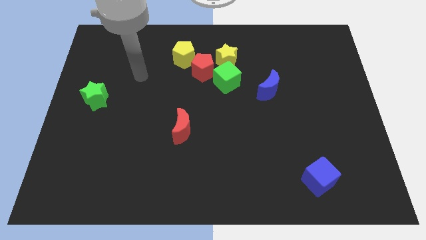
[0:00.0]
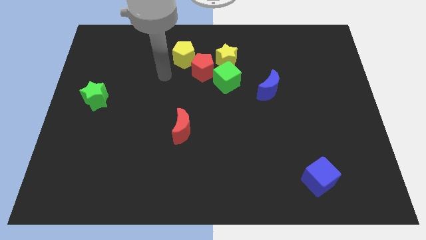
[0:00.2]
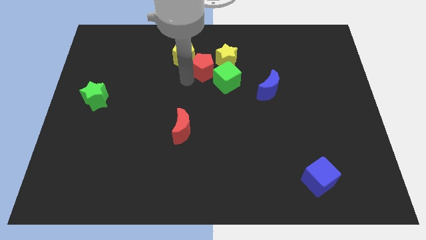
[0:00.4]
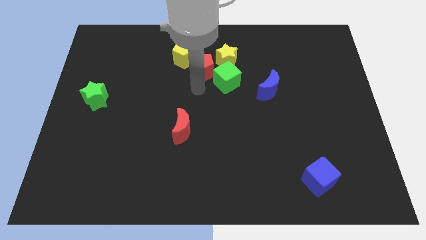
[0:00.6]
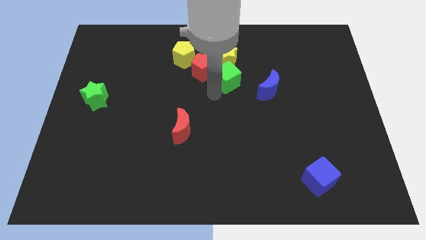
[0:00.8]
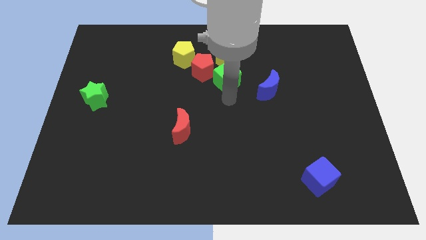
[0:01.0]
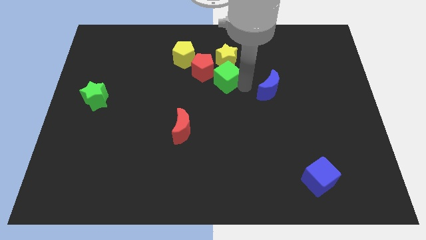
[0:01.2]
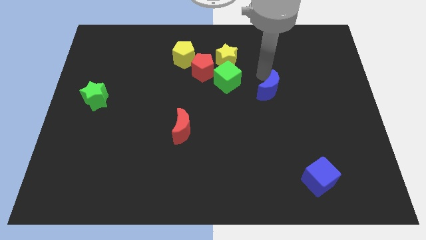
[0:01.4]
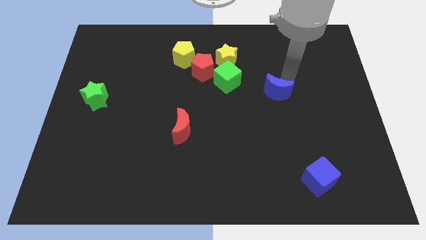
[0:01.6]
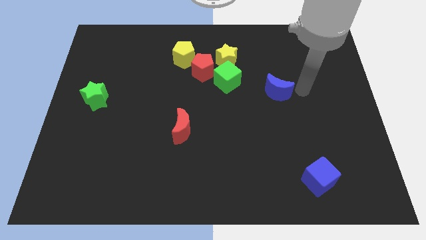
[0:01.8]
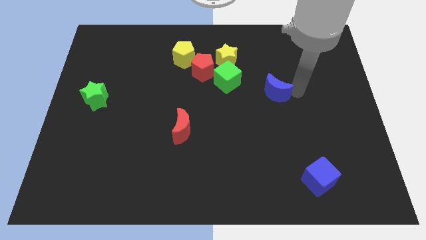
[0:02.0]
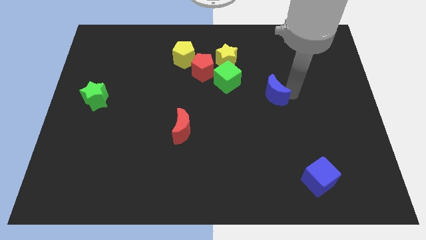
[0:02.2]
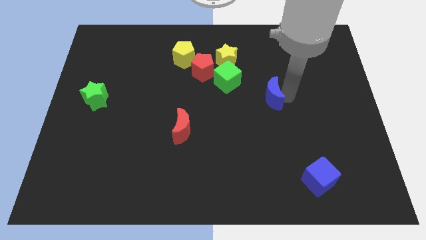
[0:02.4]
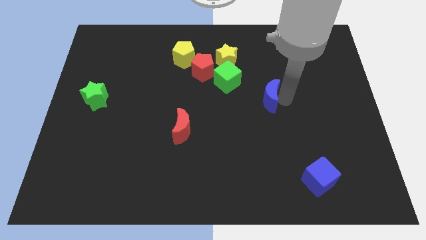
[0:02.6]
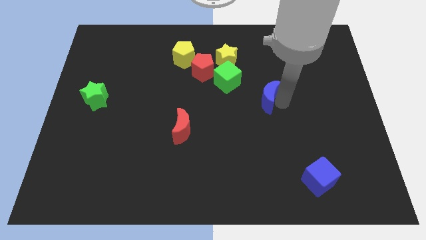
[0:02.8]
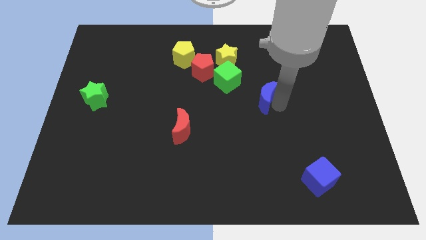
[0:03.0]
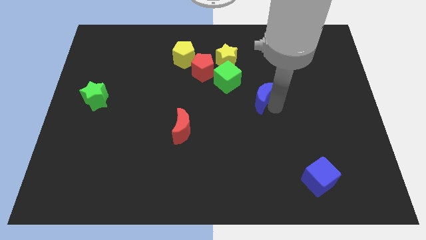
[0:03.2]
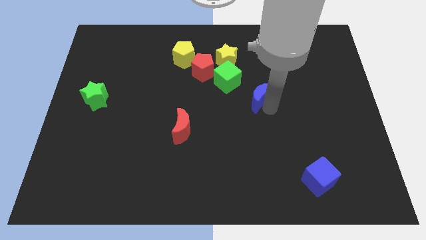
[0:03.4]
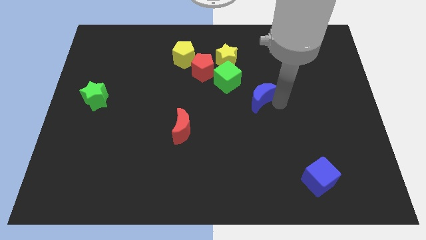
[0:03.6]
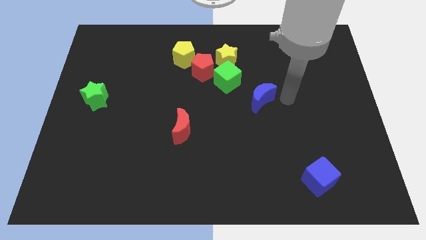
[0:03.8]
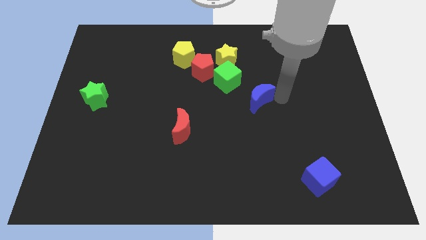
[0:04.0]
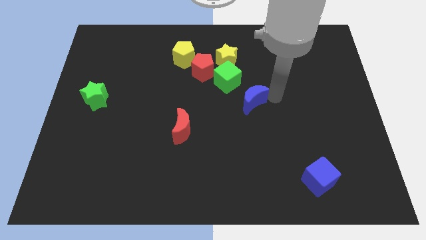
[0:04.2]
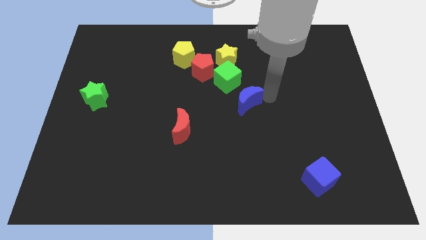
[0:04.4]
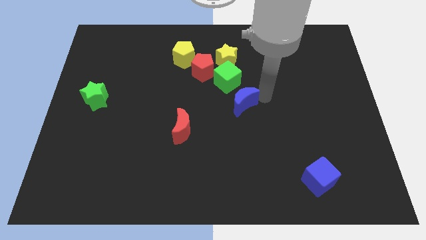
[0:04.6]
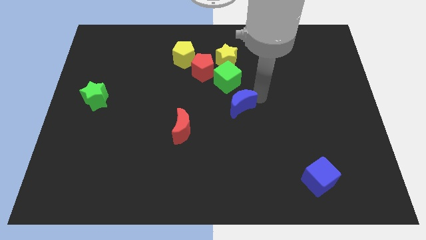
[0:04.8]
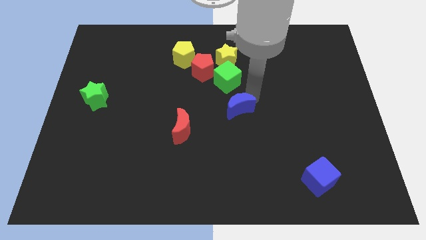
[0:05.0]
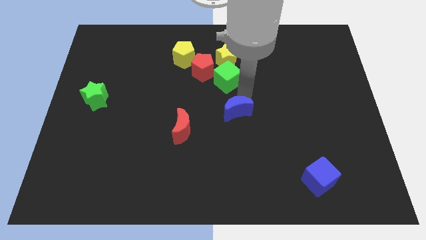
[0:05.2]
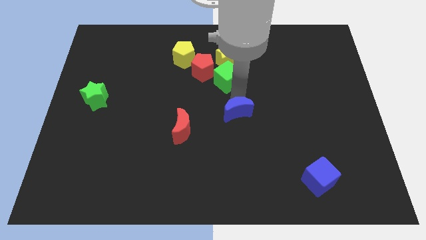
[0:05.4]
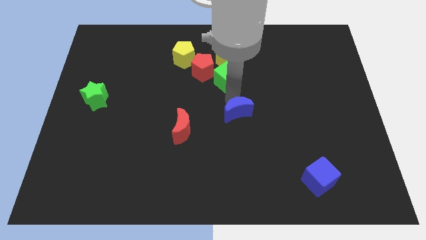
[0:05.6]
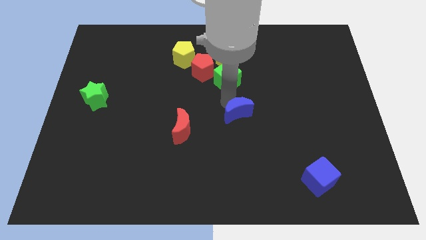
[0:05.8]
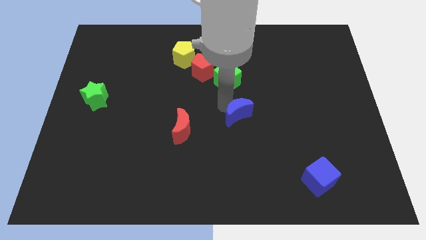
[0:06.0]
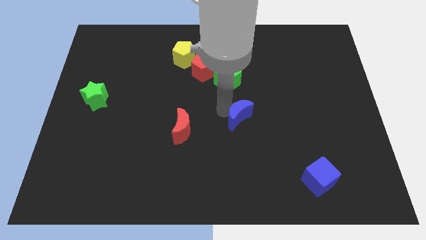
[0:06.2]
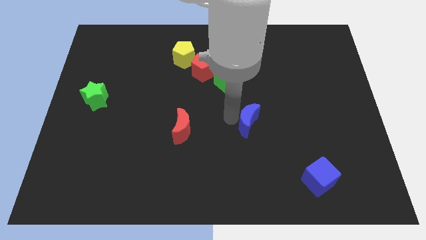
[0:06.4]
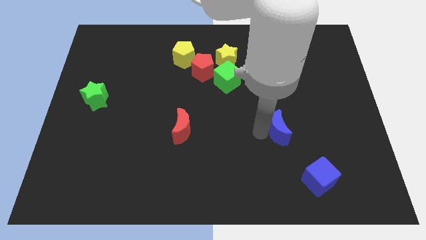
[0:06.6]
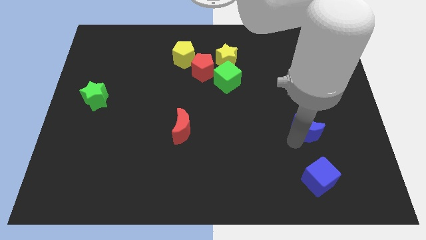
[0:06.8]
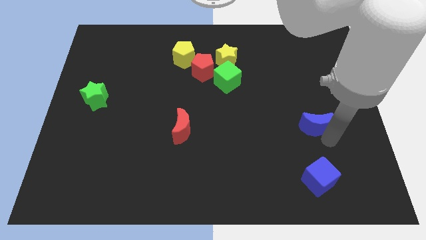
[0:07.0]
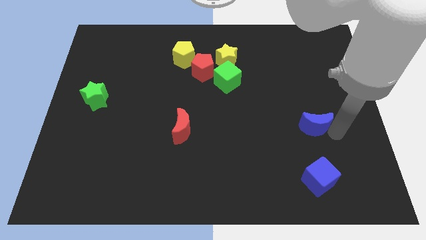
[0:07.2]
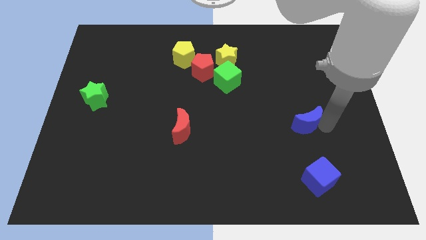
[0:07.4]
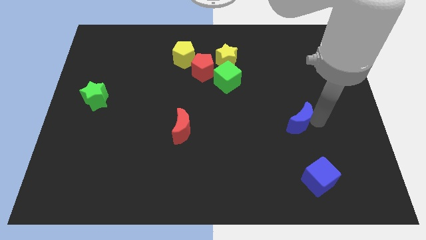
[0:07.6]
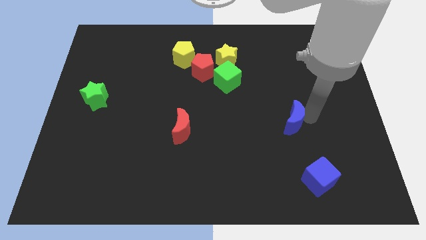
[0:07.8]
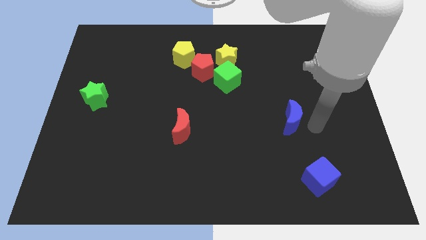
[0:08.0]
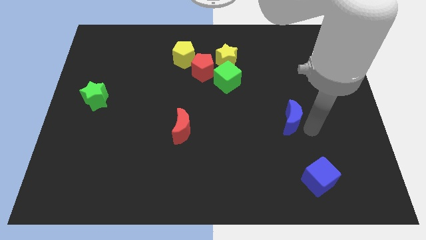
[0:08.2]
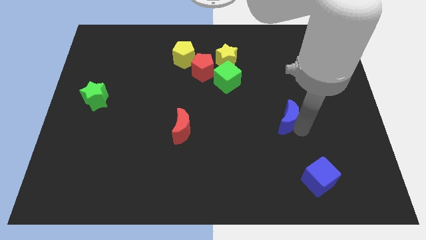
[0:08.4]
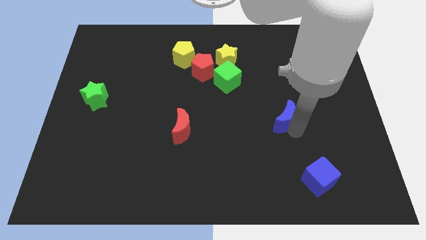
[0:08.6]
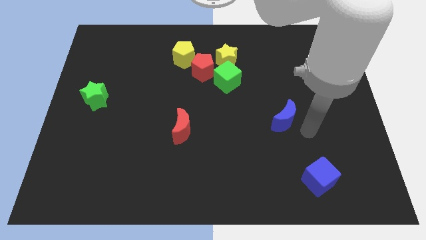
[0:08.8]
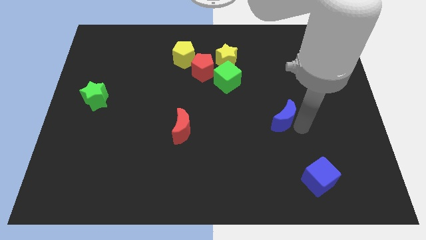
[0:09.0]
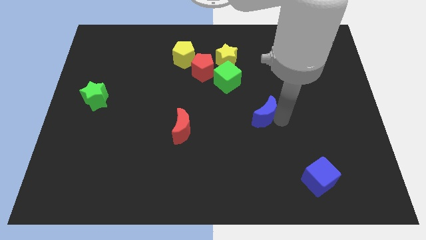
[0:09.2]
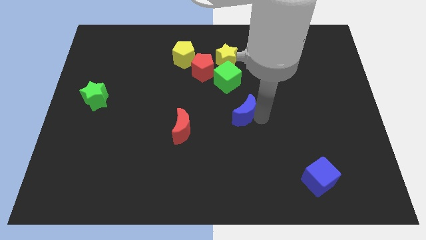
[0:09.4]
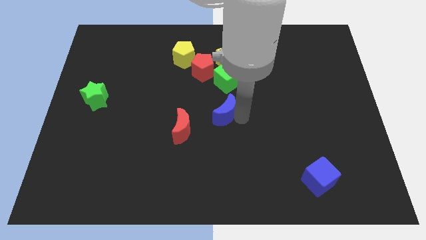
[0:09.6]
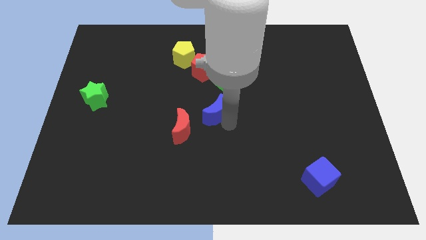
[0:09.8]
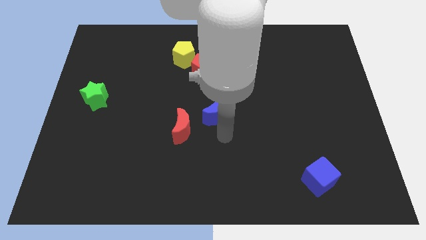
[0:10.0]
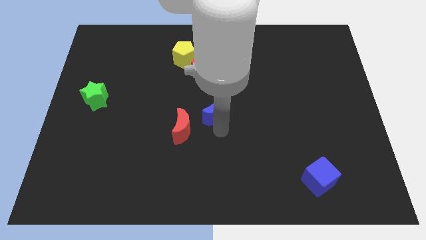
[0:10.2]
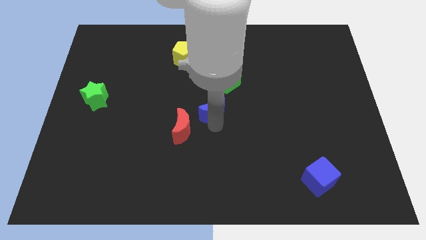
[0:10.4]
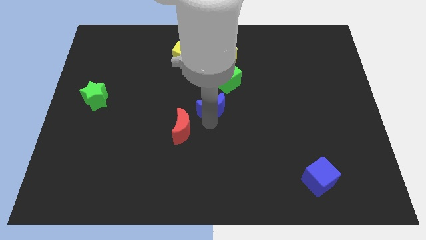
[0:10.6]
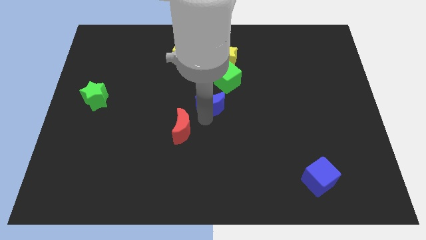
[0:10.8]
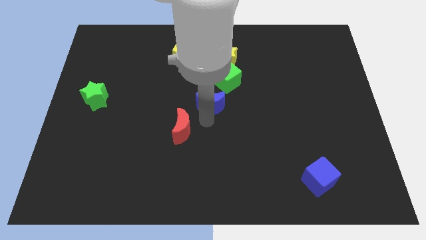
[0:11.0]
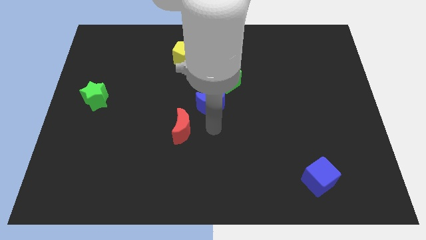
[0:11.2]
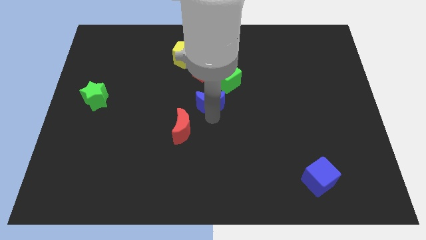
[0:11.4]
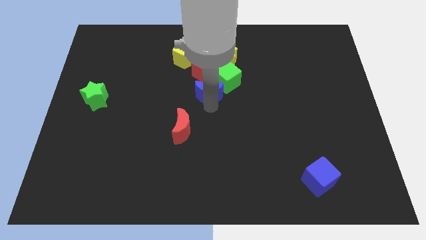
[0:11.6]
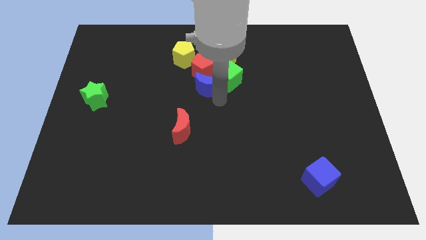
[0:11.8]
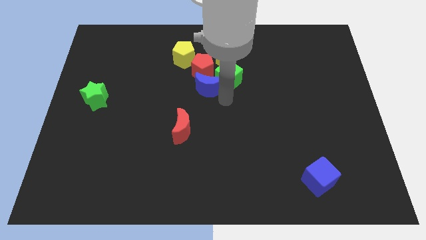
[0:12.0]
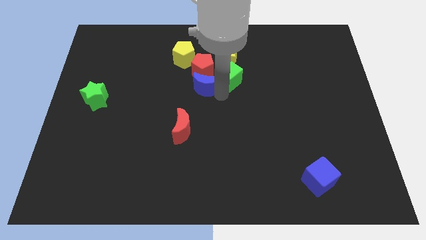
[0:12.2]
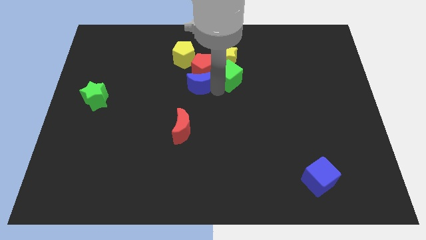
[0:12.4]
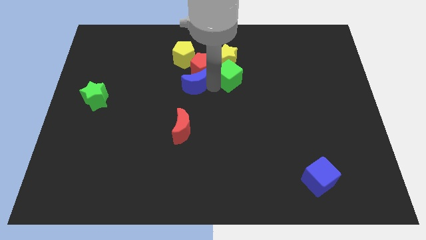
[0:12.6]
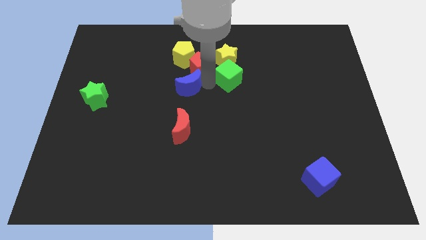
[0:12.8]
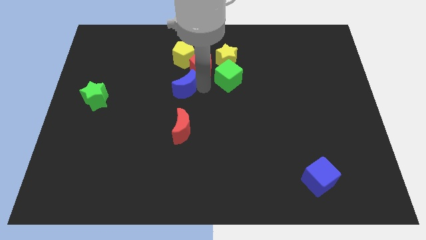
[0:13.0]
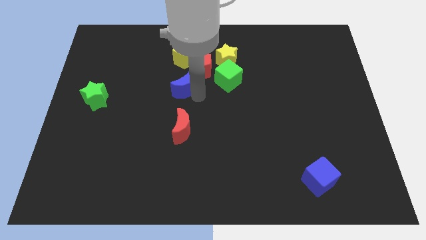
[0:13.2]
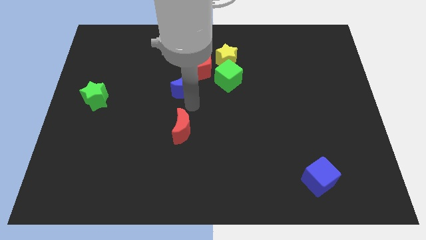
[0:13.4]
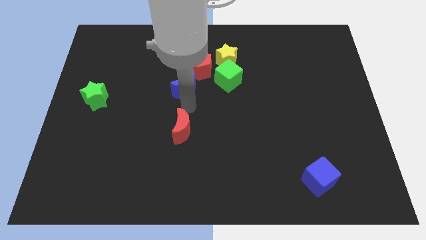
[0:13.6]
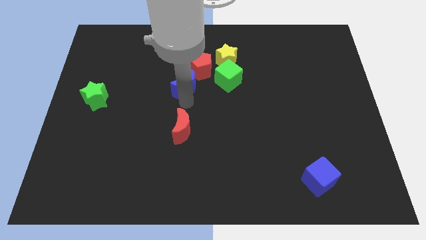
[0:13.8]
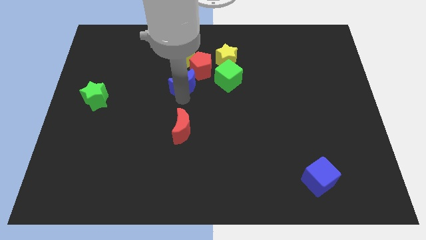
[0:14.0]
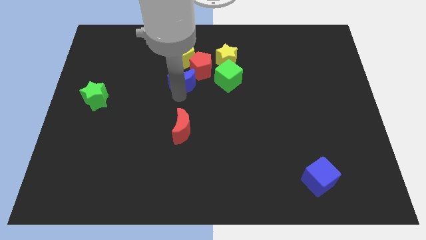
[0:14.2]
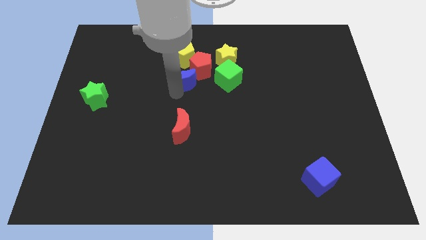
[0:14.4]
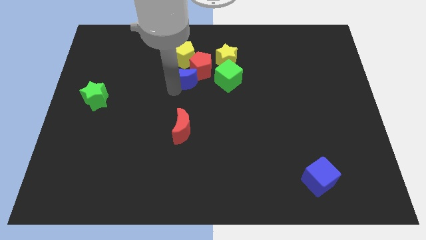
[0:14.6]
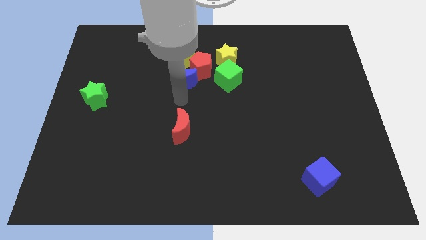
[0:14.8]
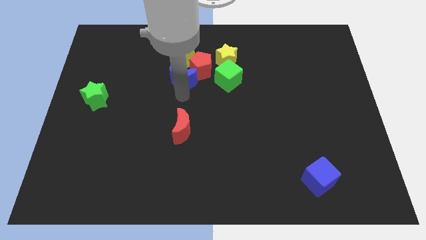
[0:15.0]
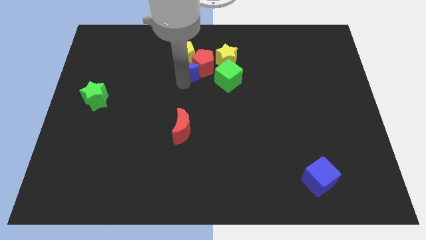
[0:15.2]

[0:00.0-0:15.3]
slide the blue moon next to the yellow pentagon

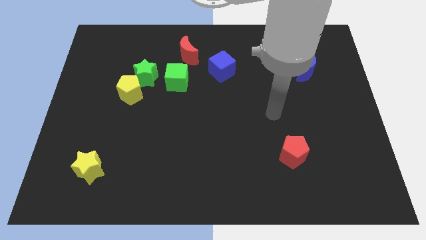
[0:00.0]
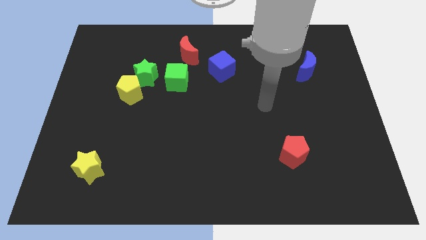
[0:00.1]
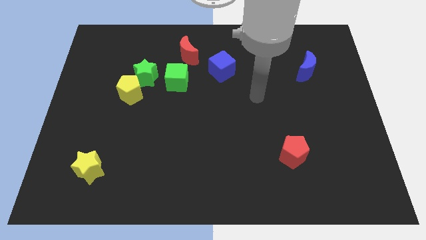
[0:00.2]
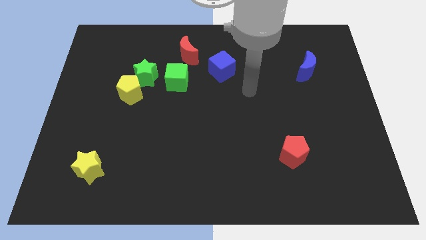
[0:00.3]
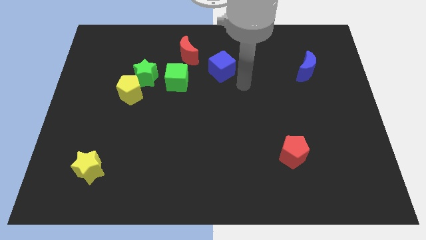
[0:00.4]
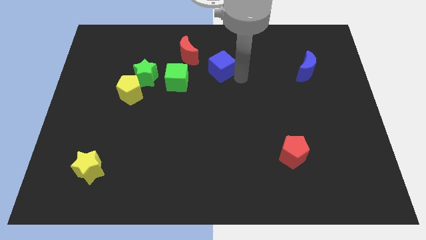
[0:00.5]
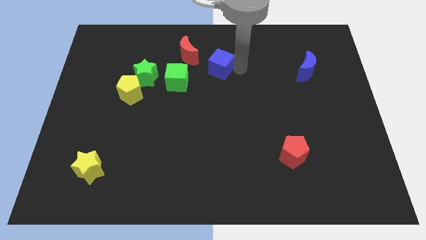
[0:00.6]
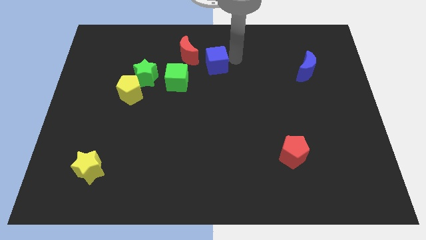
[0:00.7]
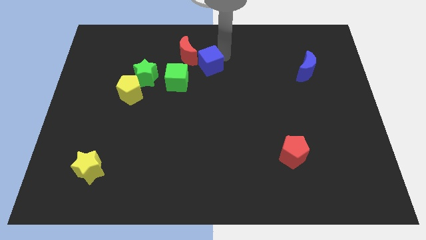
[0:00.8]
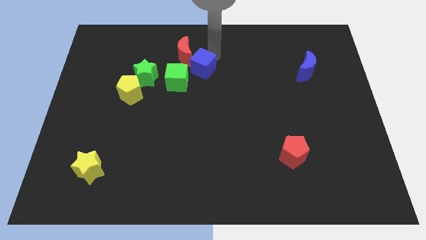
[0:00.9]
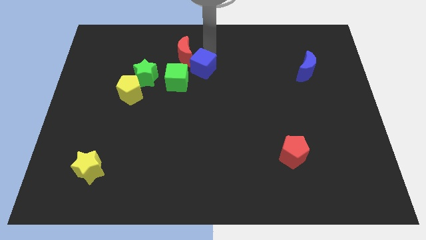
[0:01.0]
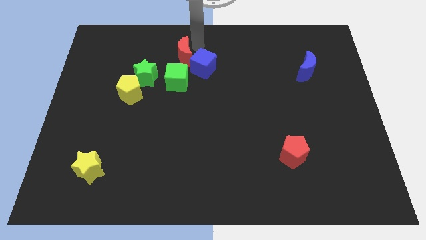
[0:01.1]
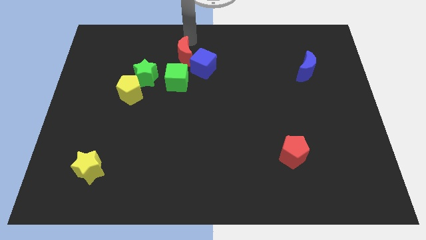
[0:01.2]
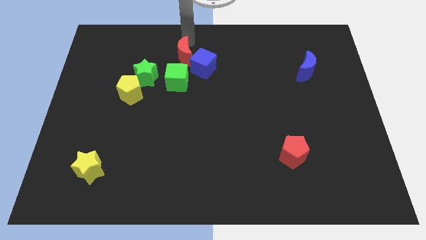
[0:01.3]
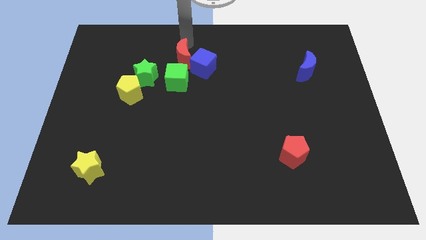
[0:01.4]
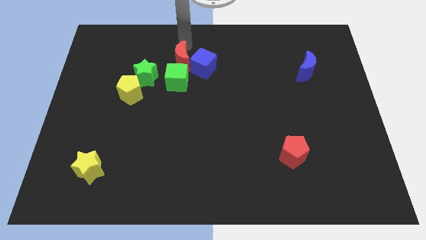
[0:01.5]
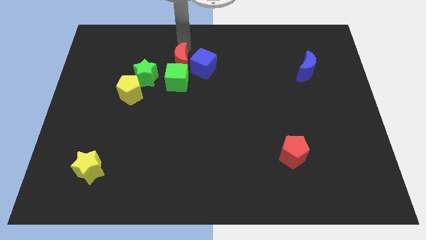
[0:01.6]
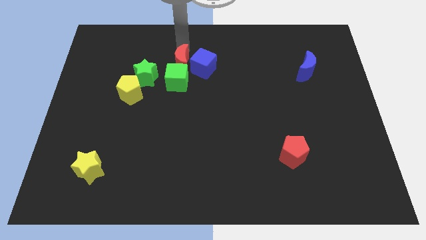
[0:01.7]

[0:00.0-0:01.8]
push the red moon next to the green cube
